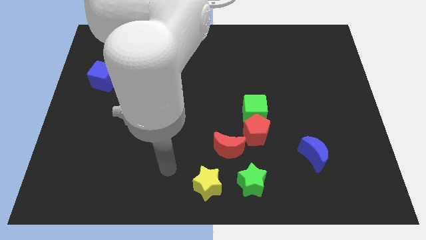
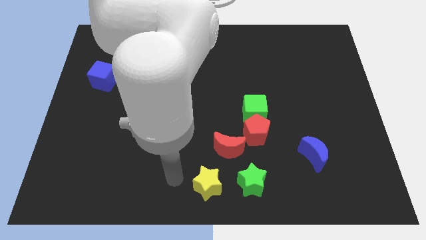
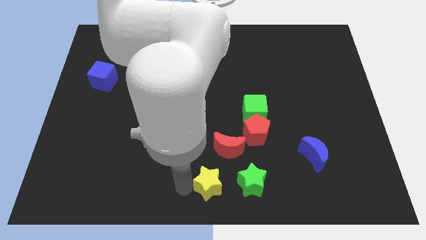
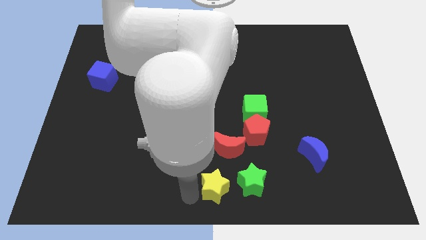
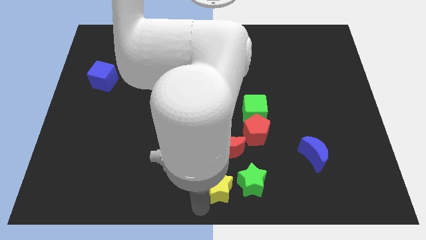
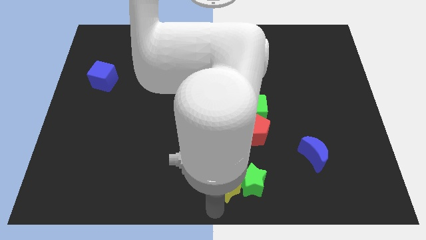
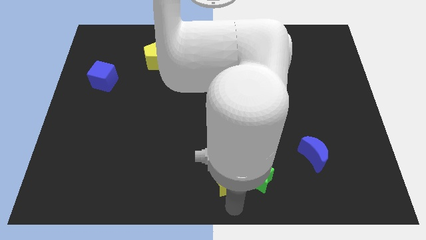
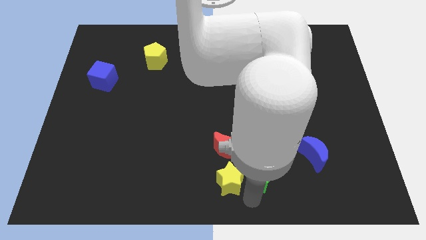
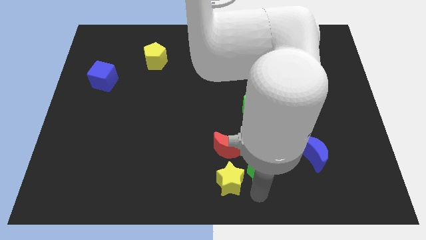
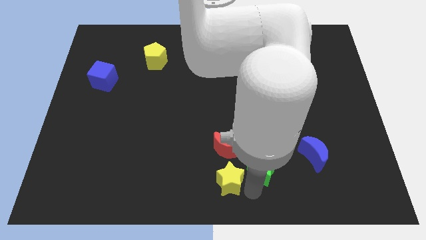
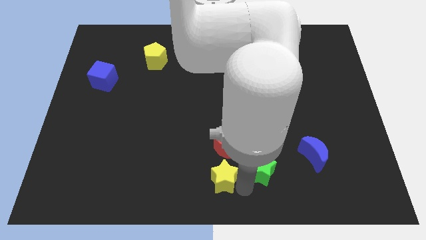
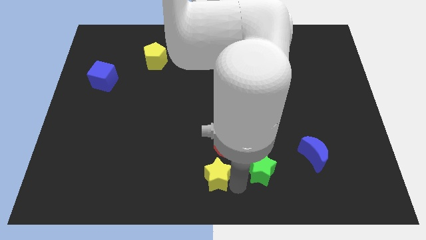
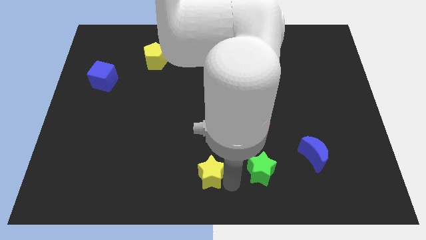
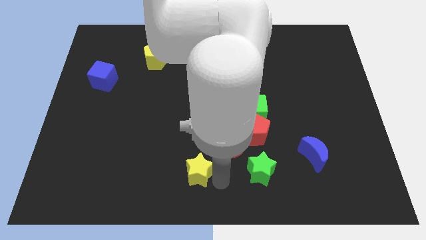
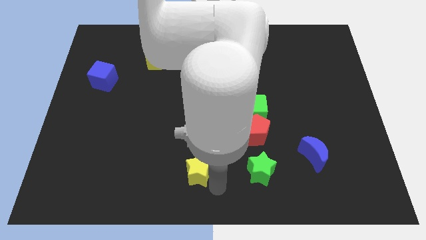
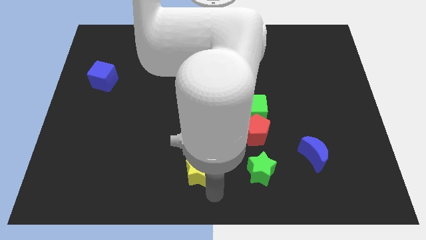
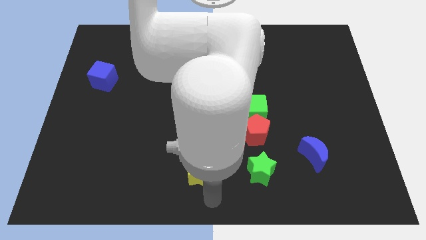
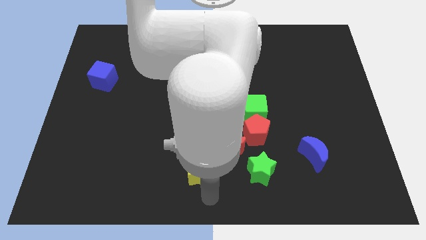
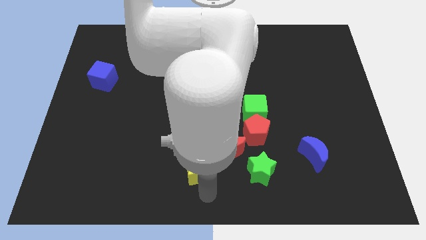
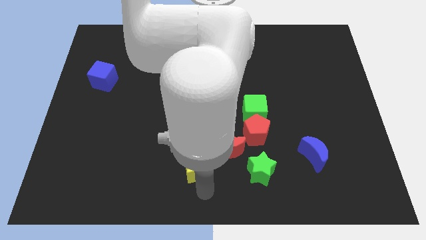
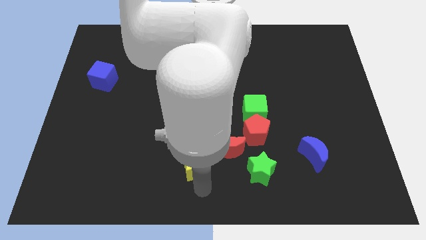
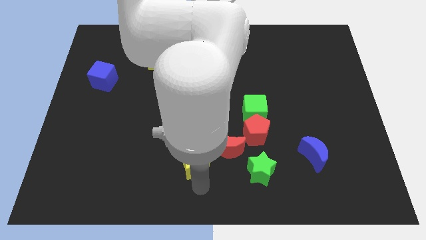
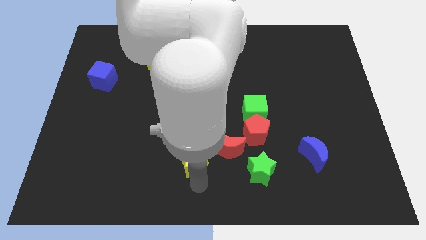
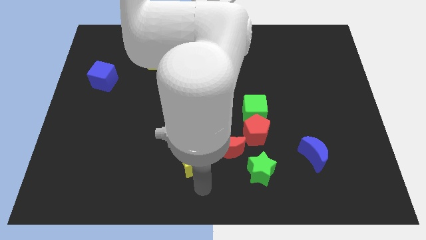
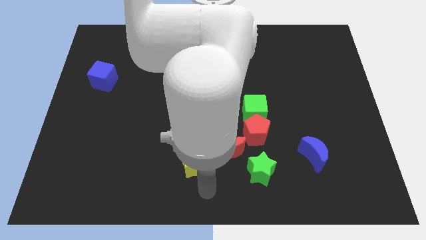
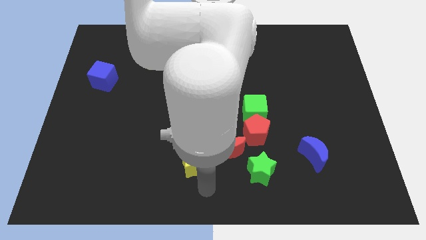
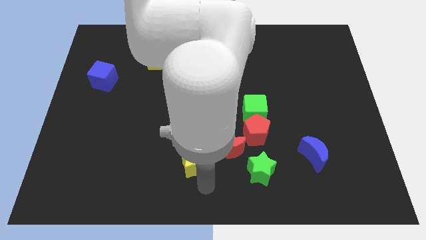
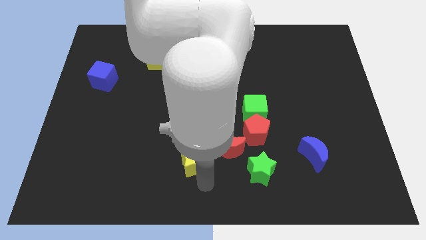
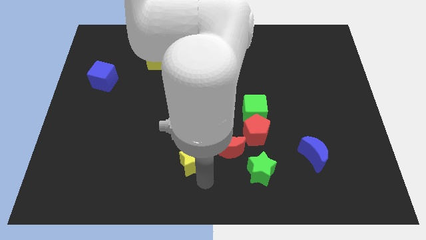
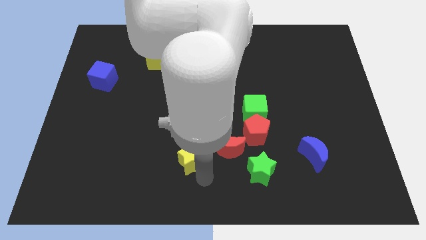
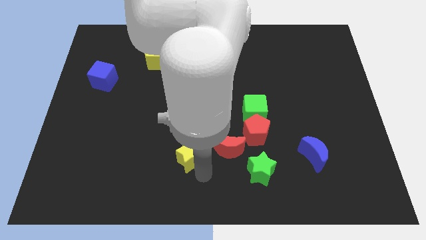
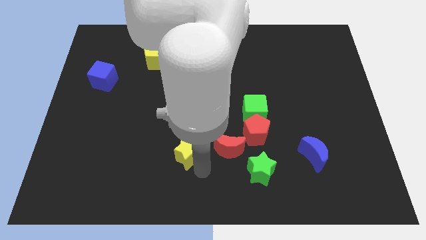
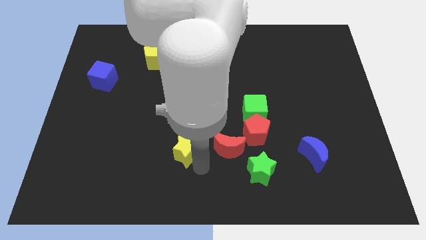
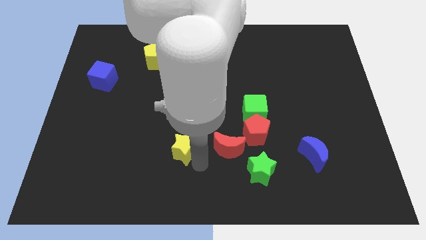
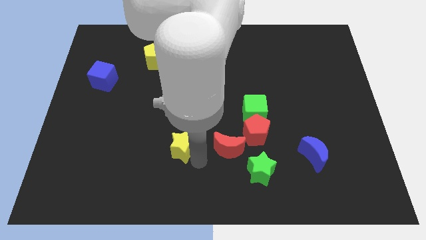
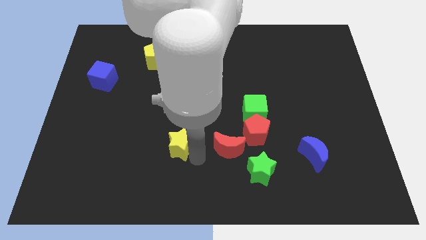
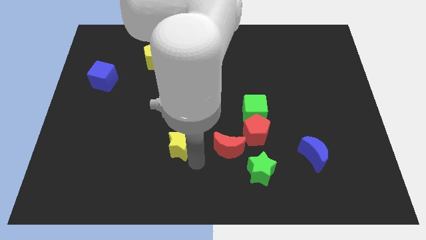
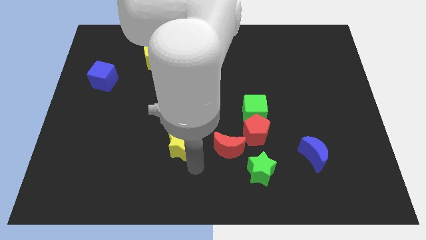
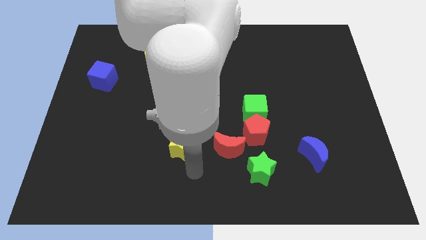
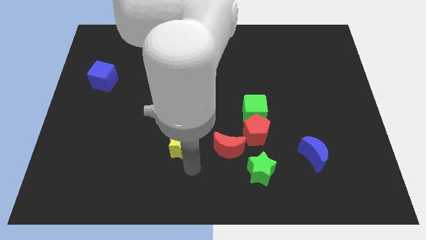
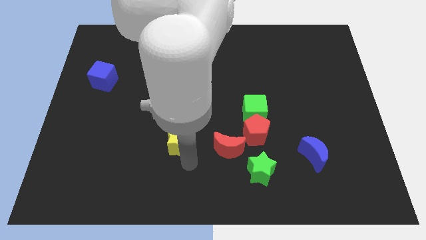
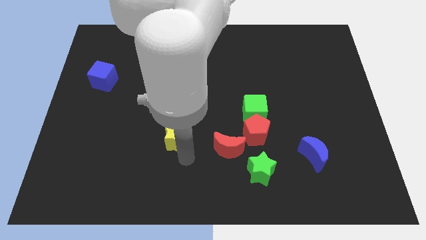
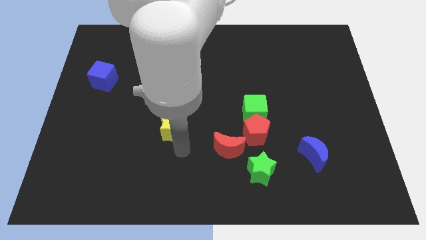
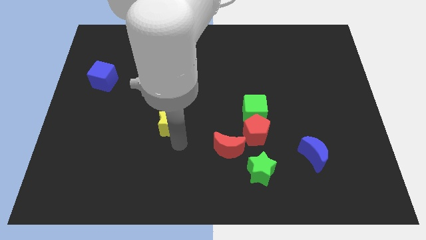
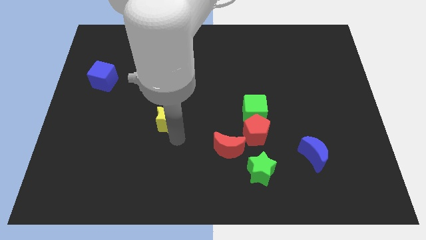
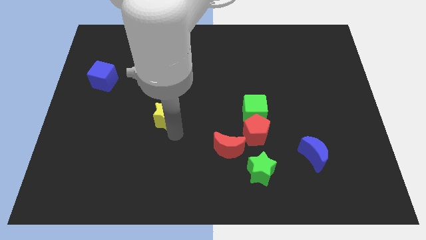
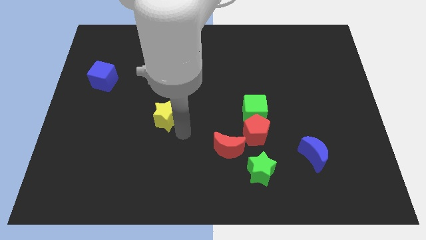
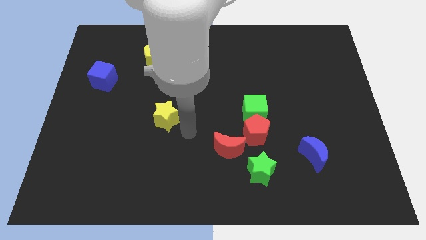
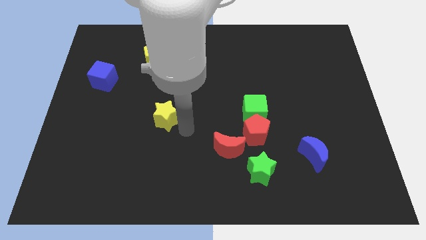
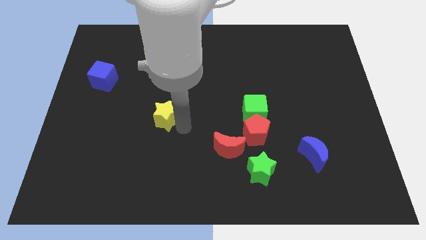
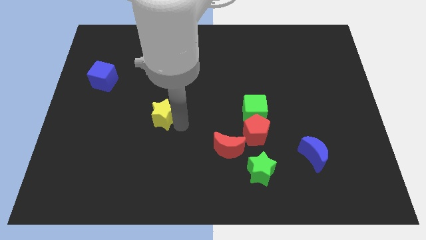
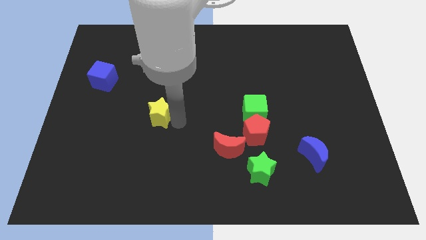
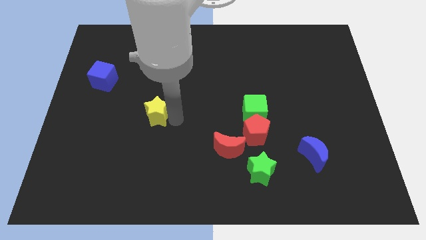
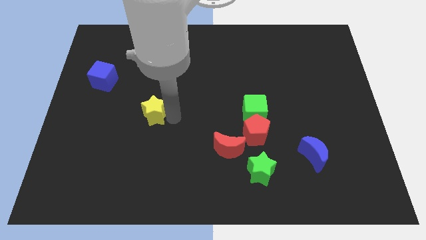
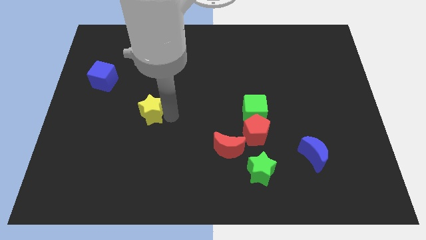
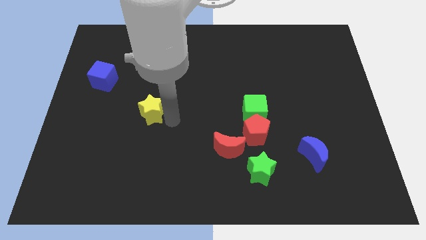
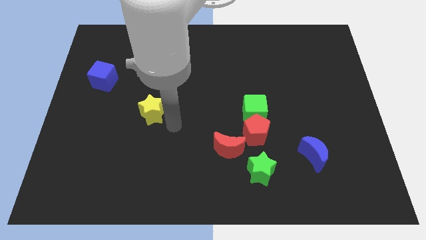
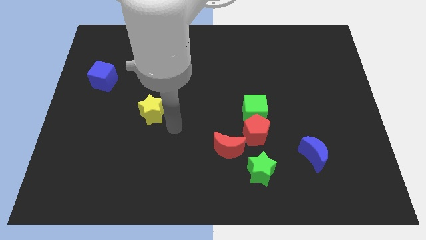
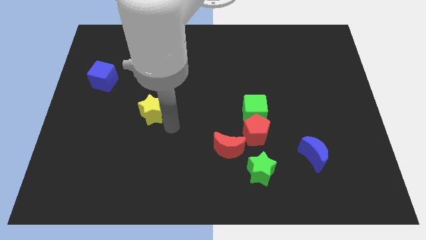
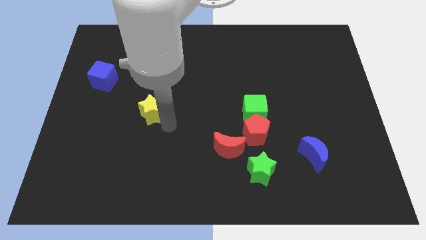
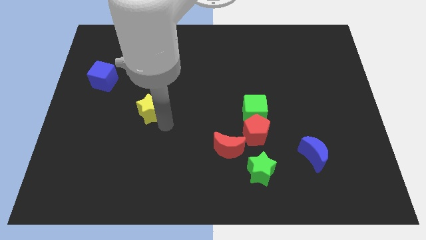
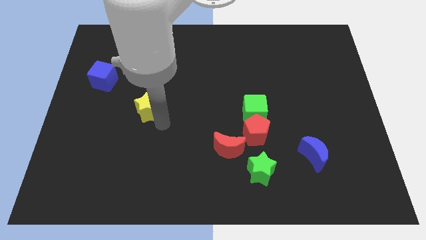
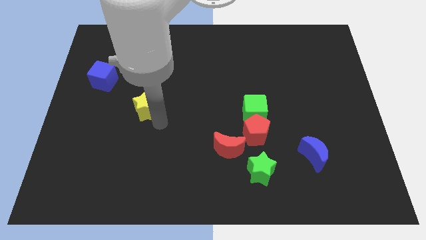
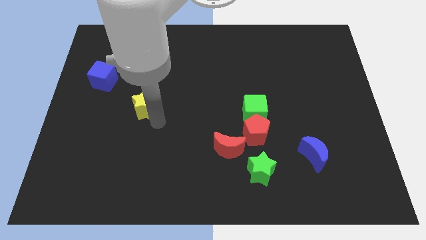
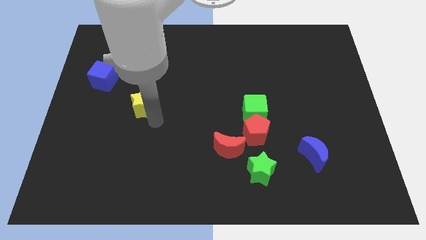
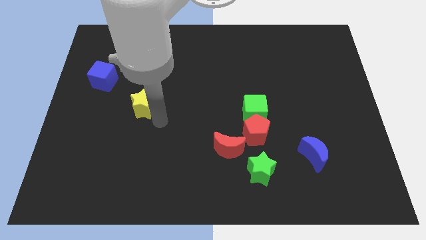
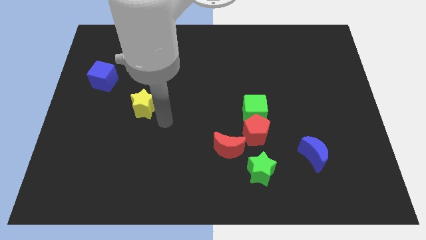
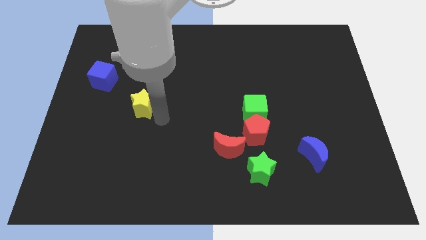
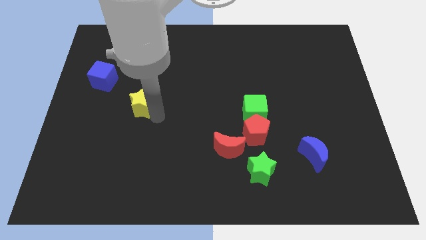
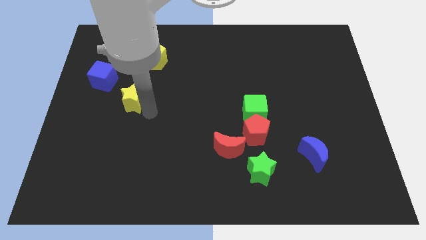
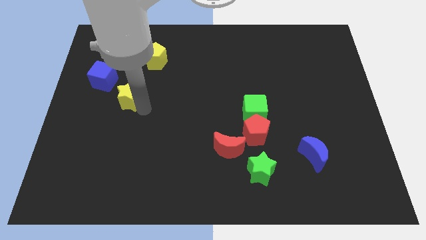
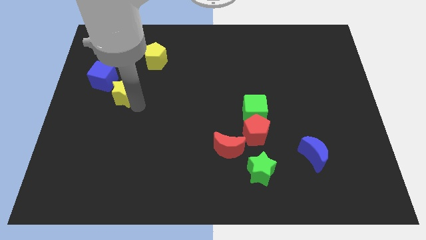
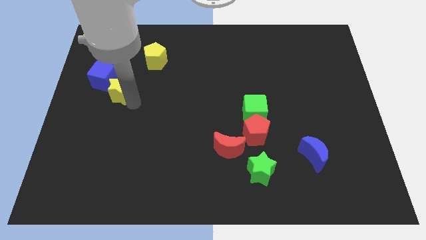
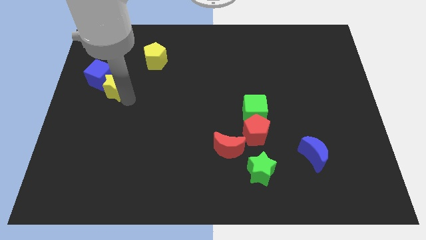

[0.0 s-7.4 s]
slide the yellow star next to the blue cube
